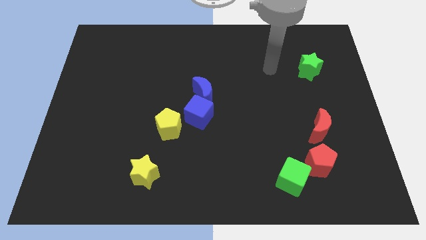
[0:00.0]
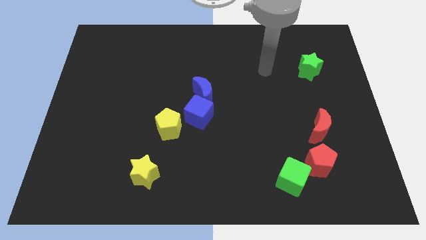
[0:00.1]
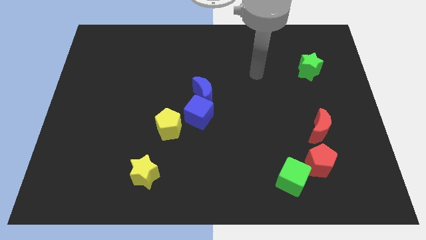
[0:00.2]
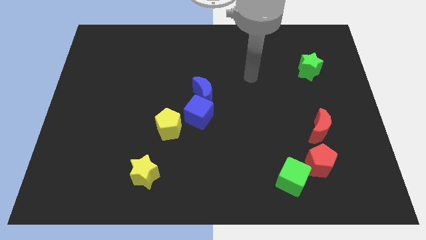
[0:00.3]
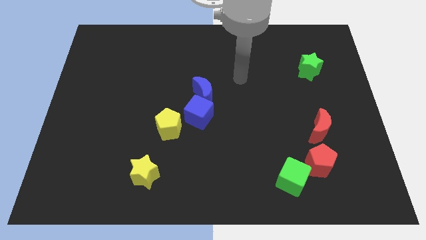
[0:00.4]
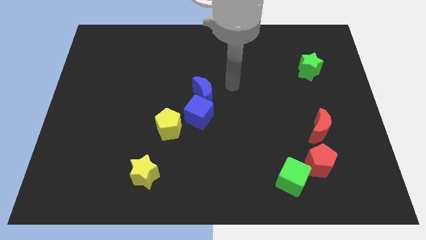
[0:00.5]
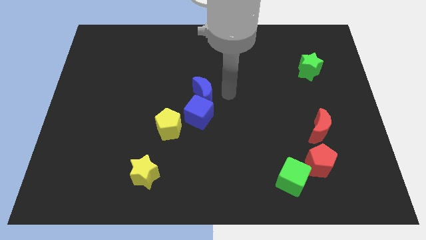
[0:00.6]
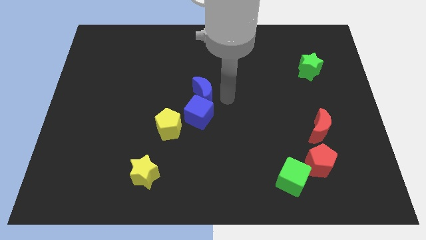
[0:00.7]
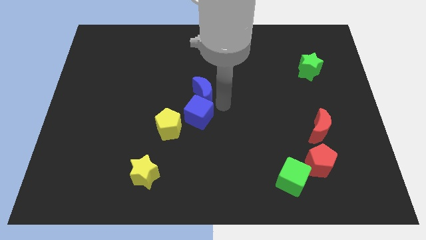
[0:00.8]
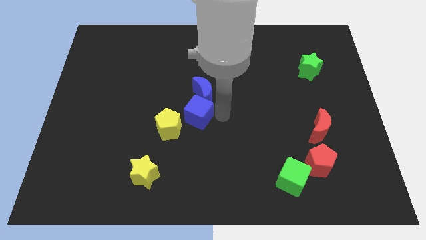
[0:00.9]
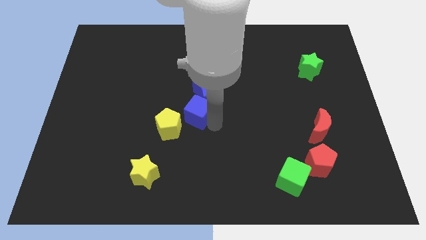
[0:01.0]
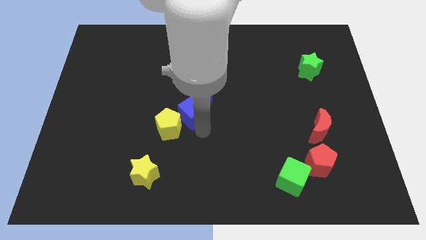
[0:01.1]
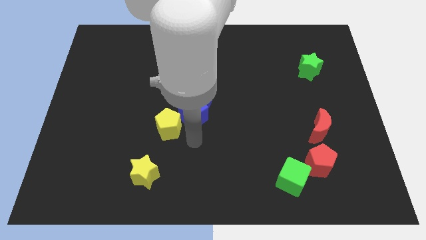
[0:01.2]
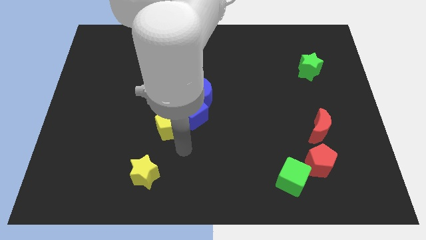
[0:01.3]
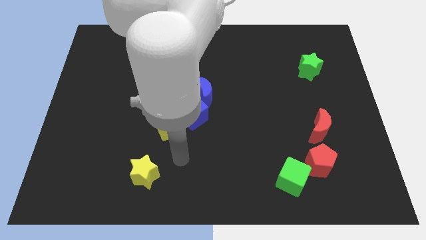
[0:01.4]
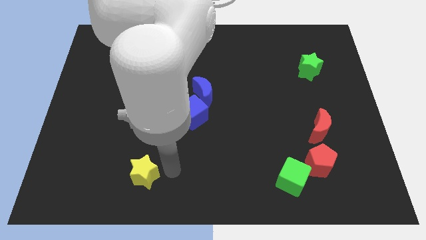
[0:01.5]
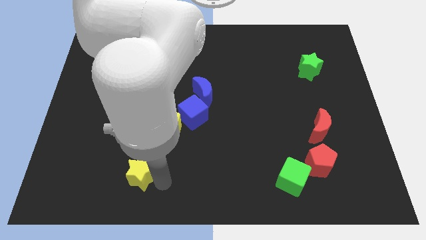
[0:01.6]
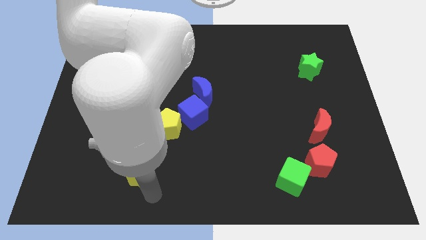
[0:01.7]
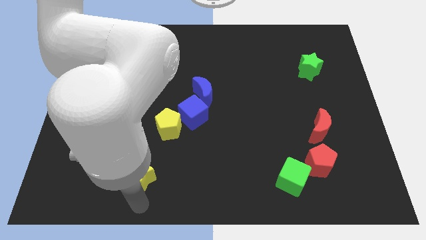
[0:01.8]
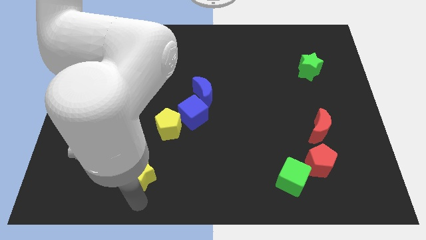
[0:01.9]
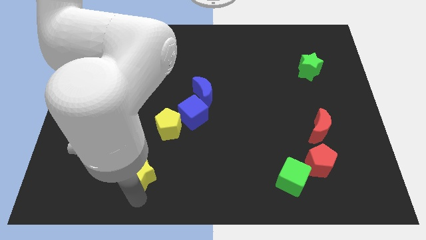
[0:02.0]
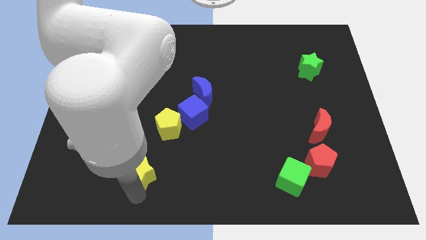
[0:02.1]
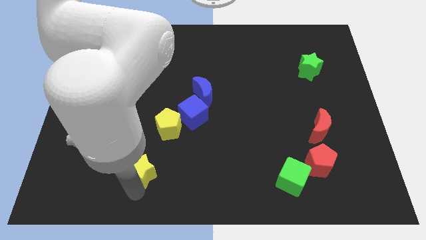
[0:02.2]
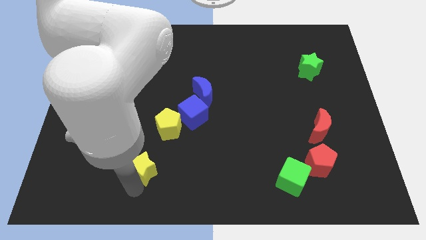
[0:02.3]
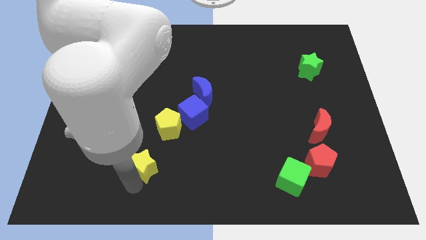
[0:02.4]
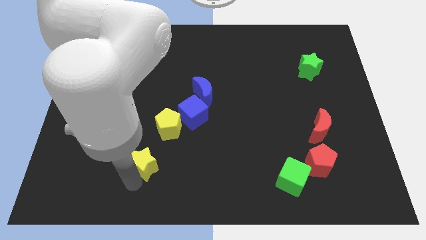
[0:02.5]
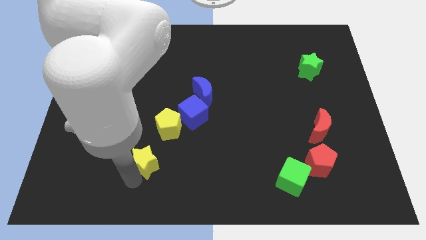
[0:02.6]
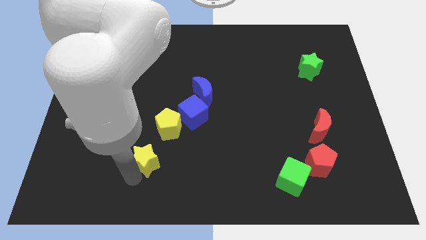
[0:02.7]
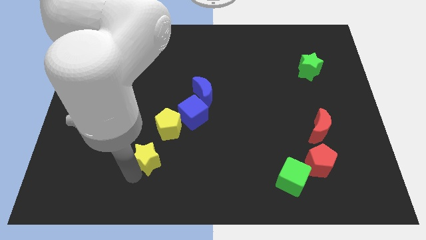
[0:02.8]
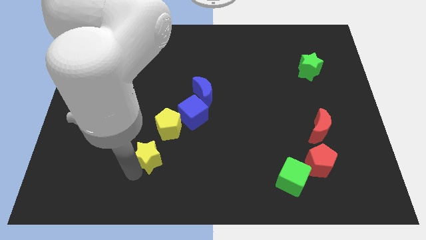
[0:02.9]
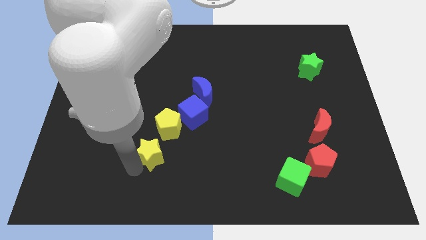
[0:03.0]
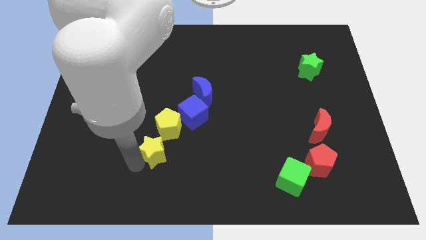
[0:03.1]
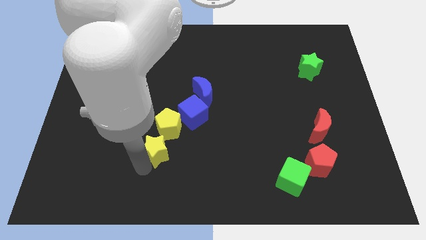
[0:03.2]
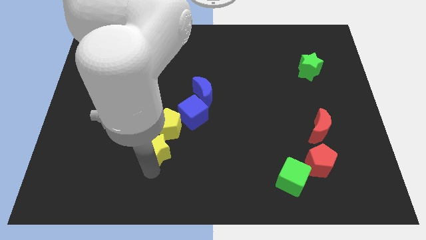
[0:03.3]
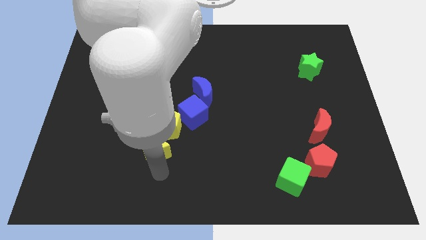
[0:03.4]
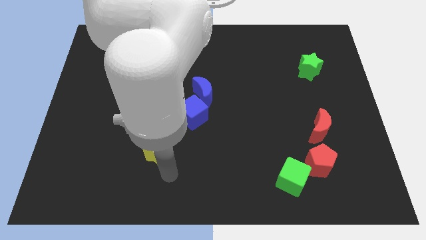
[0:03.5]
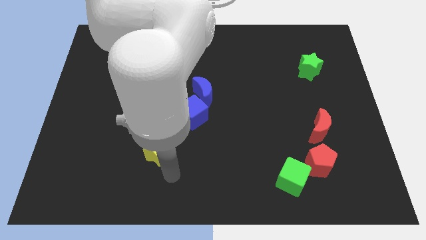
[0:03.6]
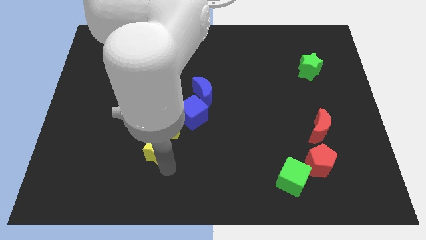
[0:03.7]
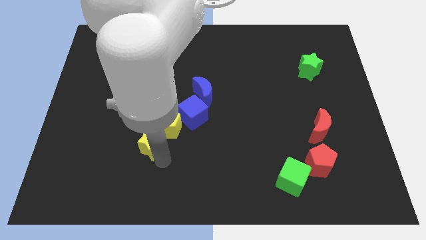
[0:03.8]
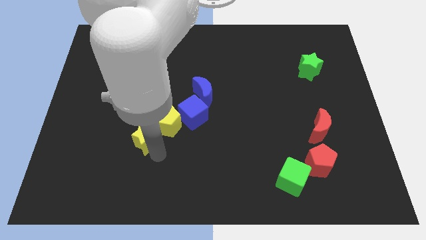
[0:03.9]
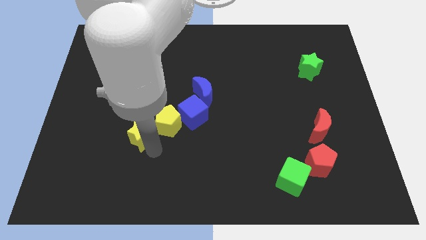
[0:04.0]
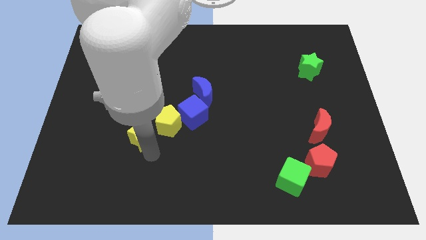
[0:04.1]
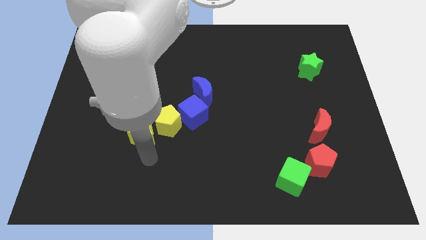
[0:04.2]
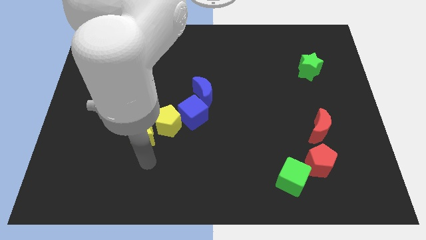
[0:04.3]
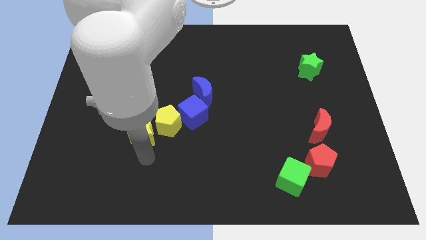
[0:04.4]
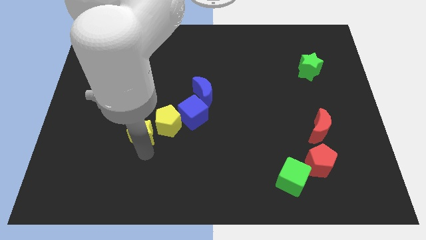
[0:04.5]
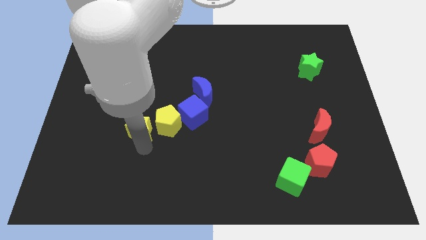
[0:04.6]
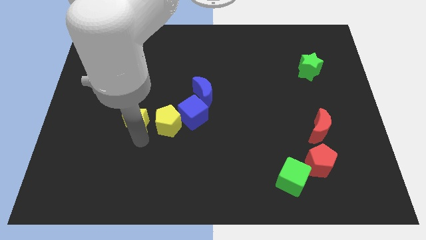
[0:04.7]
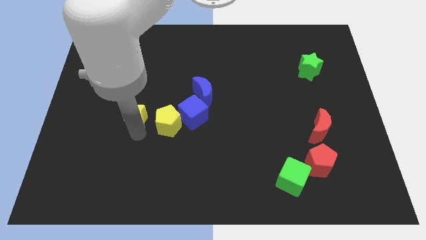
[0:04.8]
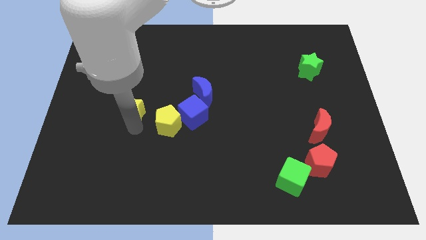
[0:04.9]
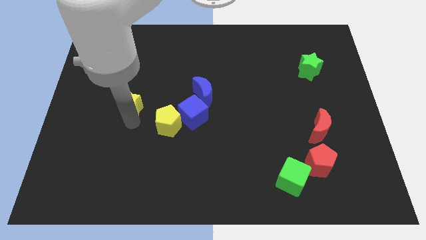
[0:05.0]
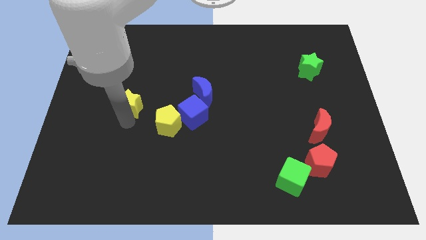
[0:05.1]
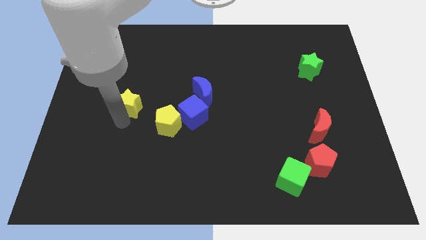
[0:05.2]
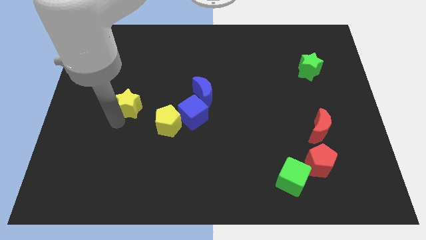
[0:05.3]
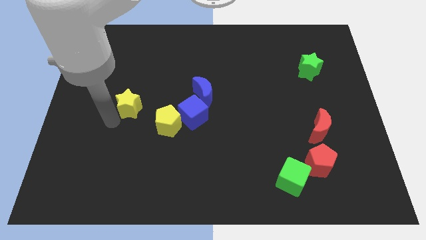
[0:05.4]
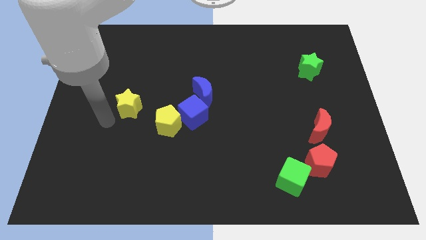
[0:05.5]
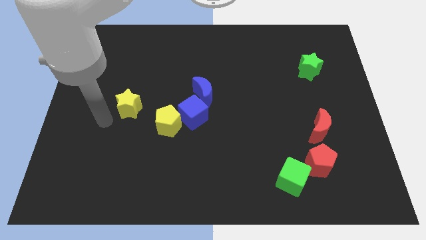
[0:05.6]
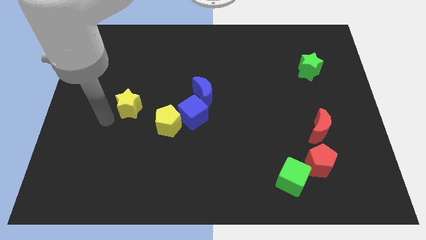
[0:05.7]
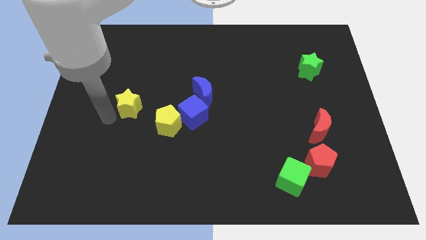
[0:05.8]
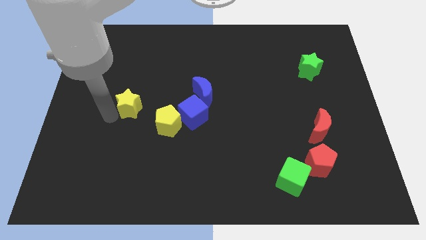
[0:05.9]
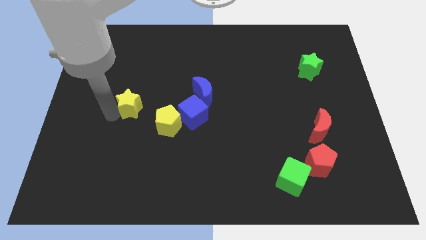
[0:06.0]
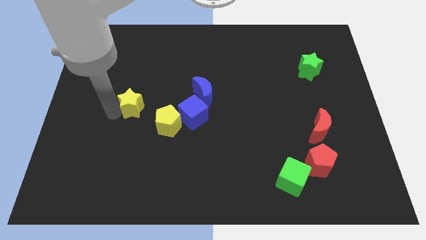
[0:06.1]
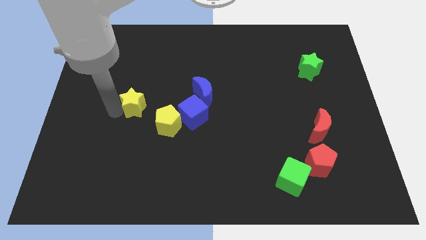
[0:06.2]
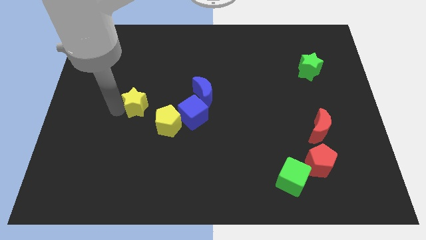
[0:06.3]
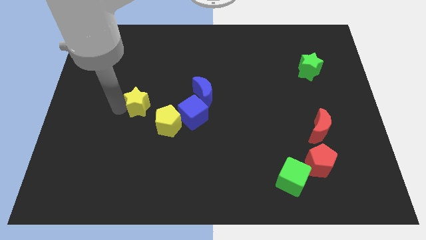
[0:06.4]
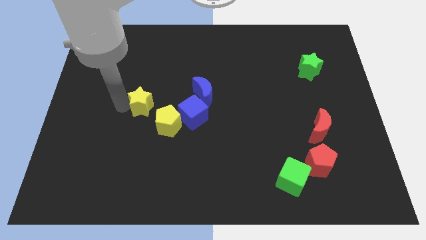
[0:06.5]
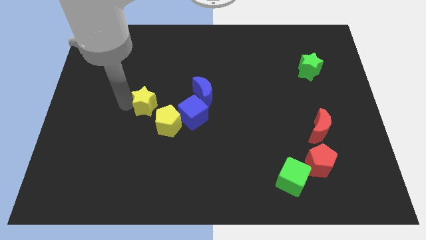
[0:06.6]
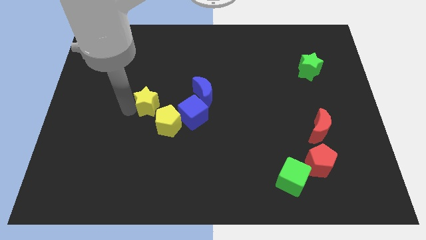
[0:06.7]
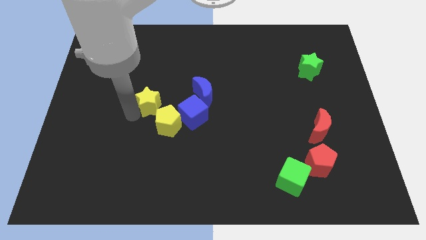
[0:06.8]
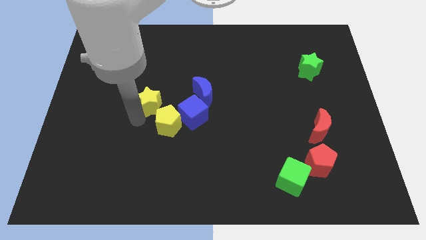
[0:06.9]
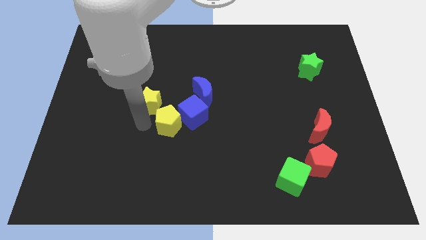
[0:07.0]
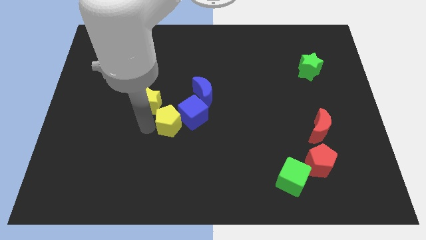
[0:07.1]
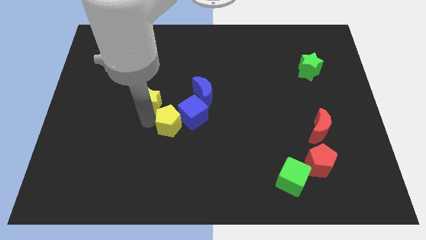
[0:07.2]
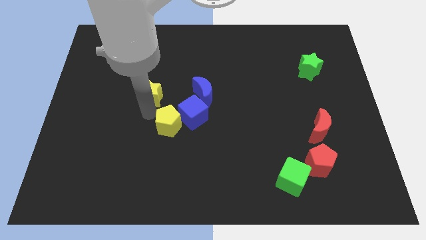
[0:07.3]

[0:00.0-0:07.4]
push the yellow star up

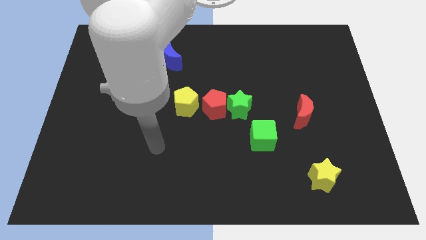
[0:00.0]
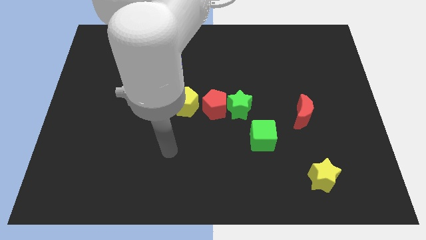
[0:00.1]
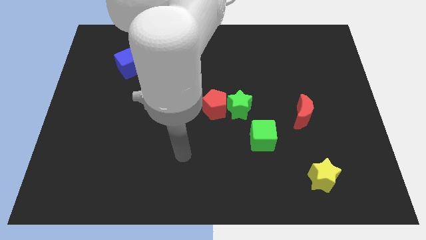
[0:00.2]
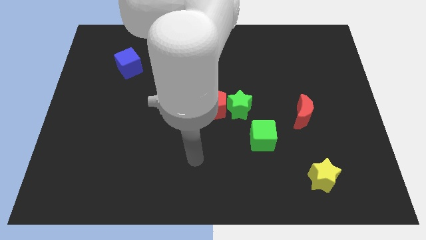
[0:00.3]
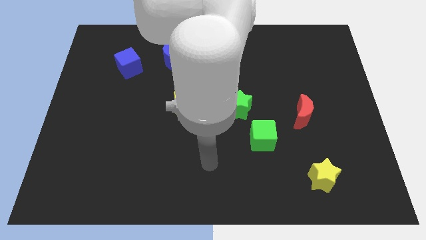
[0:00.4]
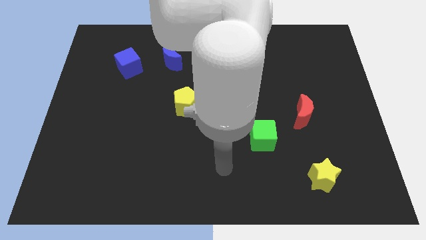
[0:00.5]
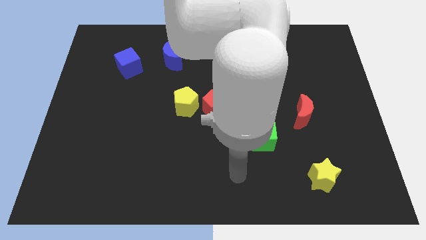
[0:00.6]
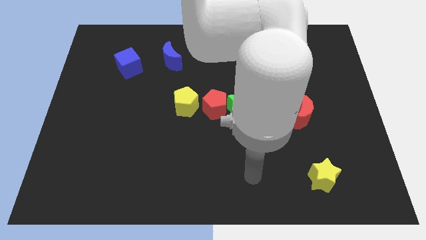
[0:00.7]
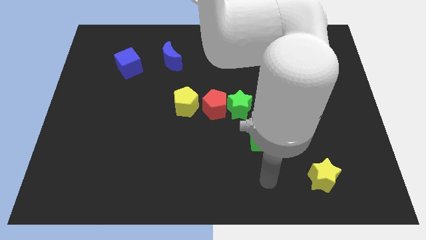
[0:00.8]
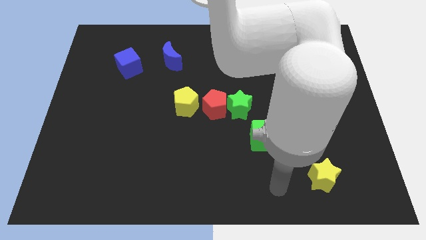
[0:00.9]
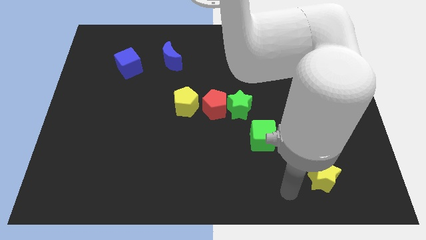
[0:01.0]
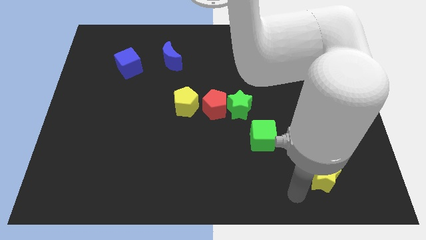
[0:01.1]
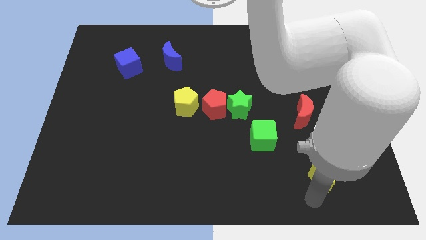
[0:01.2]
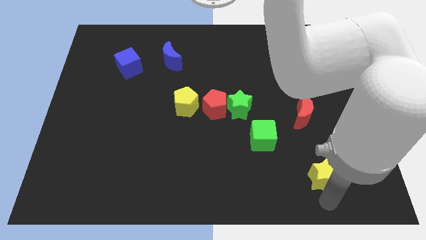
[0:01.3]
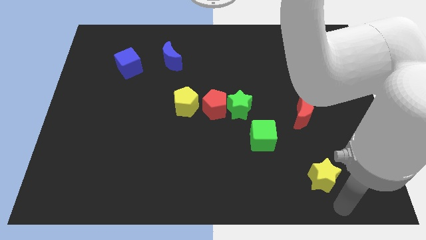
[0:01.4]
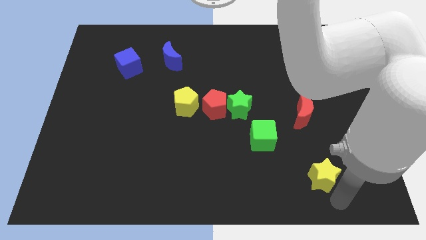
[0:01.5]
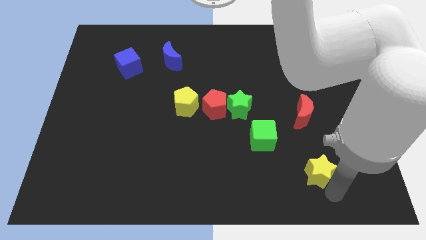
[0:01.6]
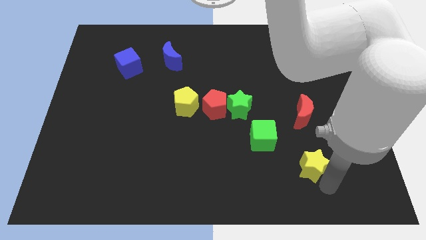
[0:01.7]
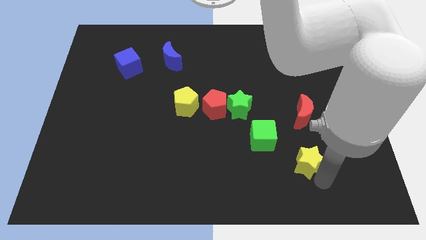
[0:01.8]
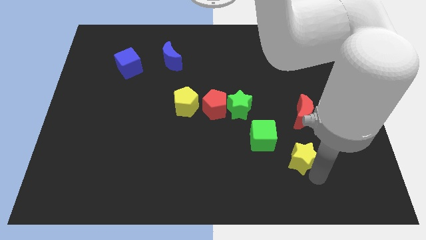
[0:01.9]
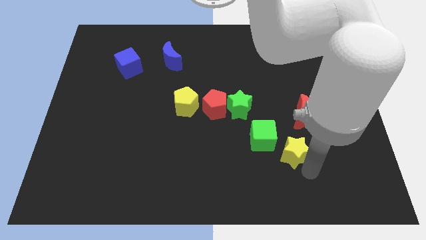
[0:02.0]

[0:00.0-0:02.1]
slightly slide the yellow star up and left diagonally
